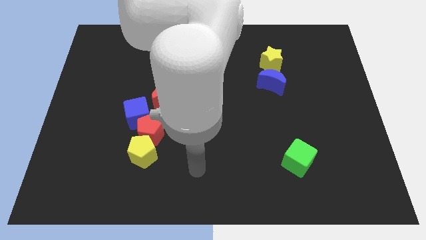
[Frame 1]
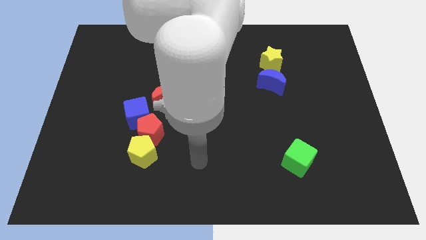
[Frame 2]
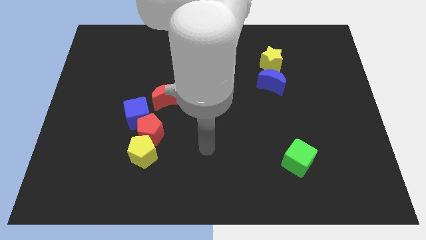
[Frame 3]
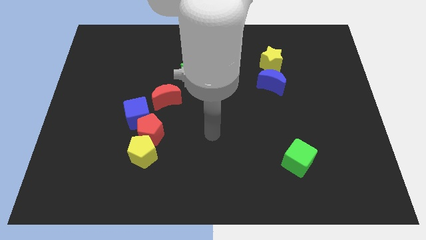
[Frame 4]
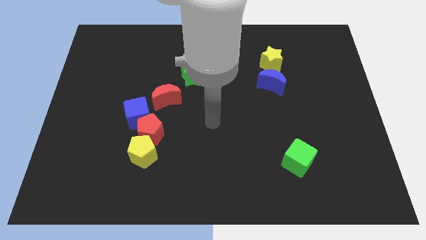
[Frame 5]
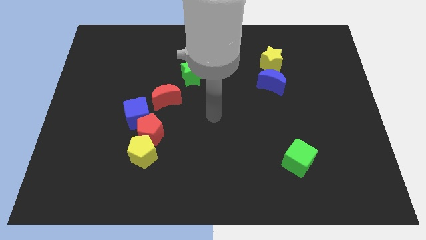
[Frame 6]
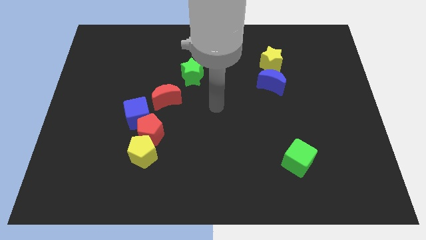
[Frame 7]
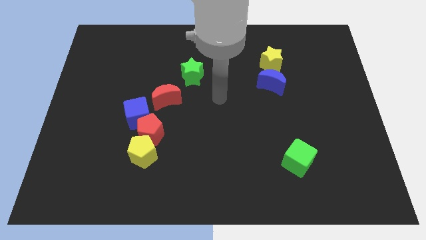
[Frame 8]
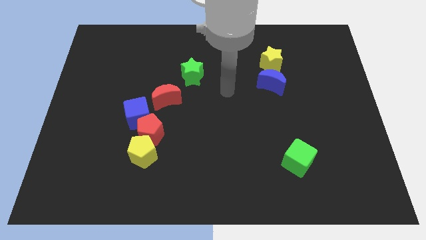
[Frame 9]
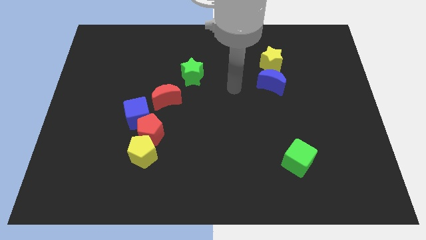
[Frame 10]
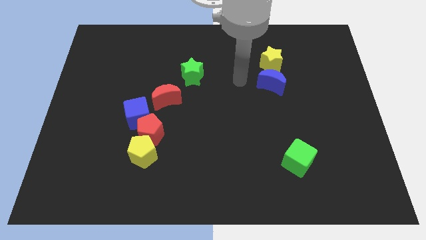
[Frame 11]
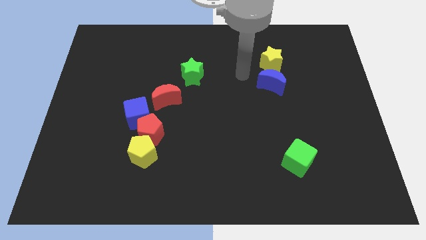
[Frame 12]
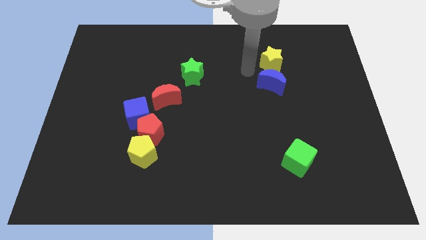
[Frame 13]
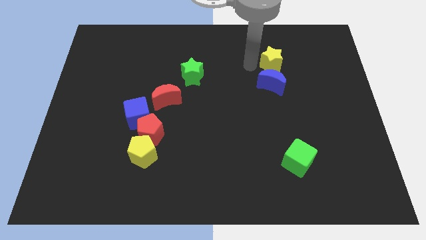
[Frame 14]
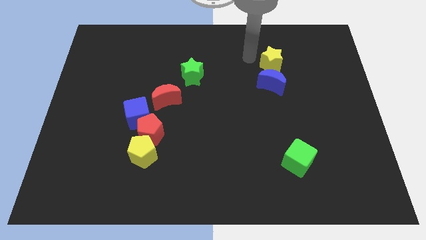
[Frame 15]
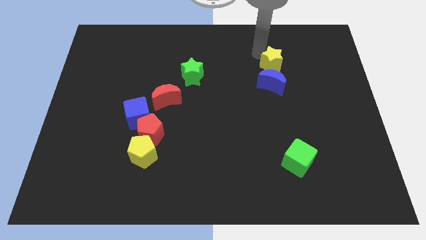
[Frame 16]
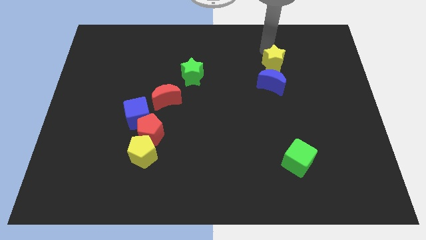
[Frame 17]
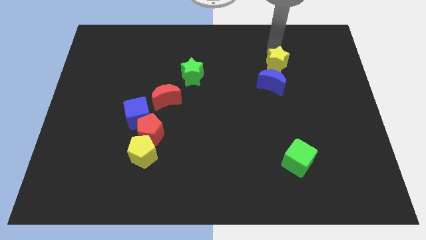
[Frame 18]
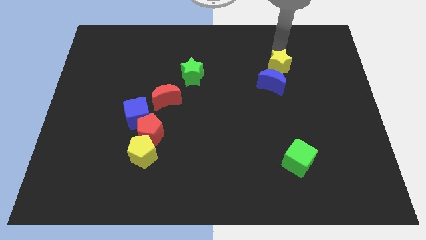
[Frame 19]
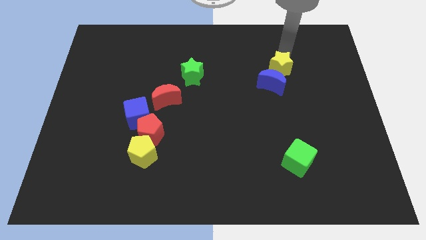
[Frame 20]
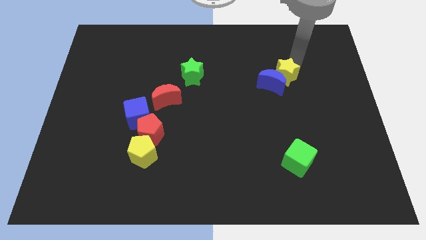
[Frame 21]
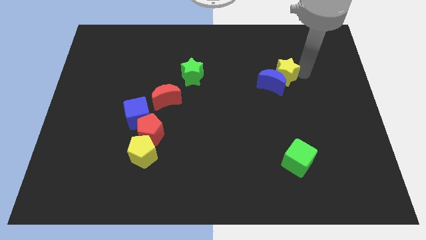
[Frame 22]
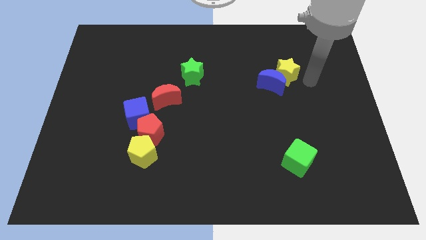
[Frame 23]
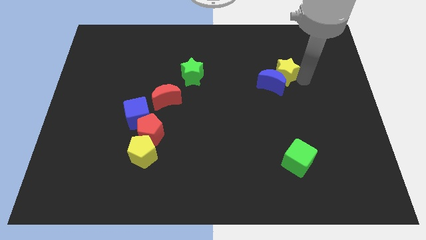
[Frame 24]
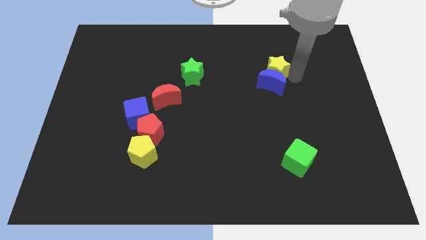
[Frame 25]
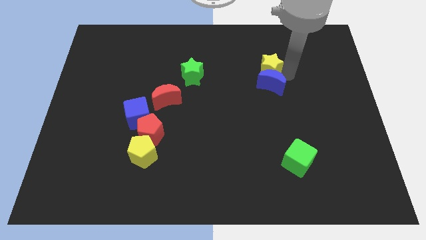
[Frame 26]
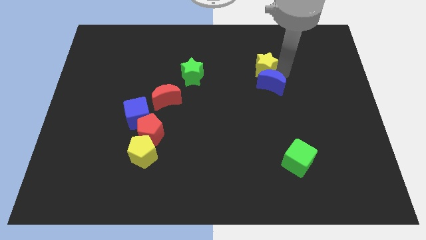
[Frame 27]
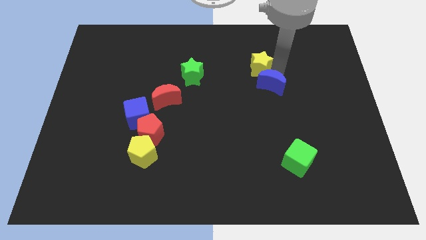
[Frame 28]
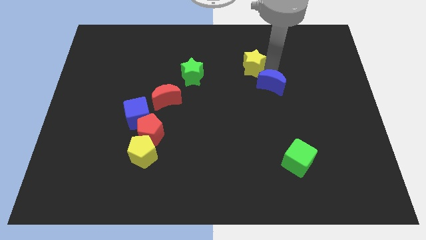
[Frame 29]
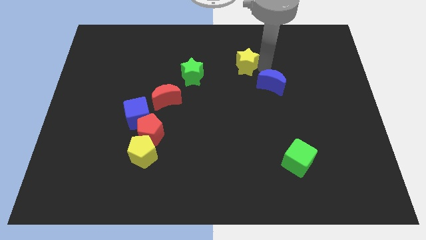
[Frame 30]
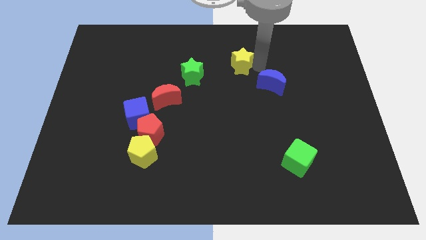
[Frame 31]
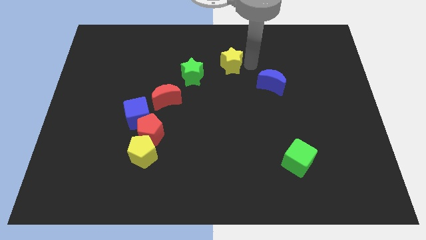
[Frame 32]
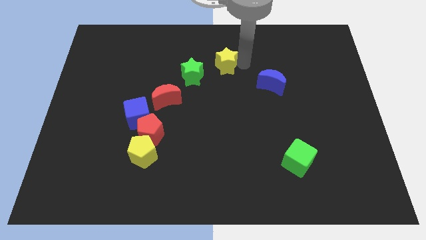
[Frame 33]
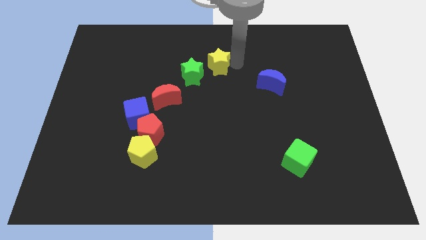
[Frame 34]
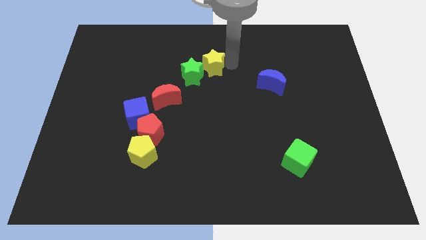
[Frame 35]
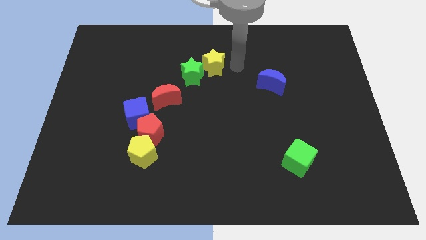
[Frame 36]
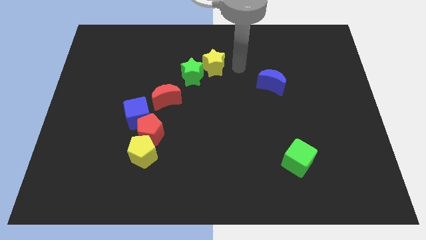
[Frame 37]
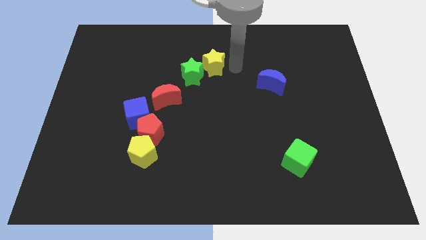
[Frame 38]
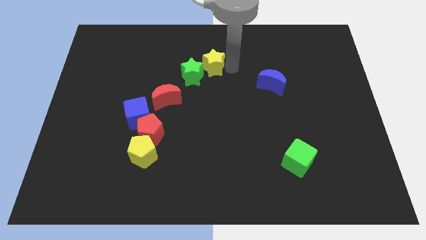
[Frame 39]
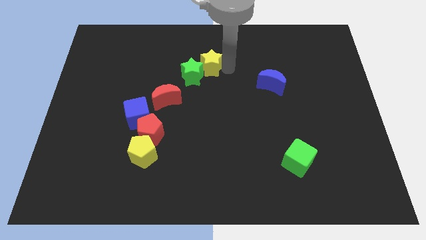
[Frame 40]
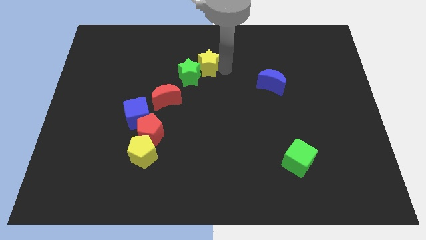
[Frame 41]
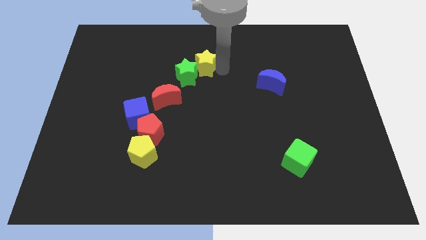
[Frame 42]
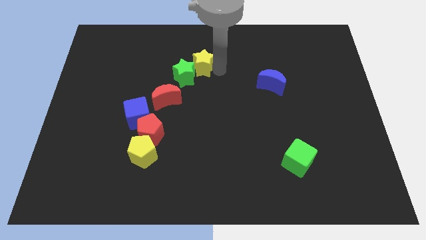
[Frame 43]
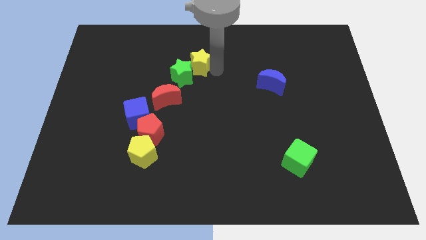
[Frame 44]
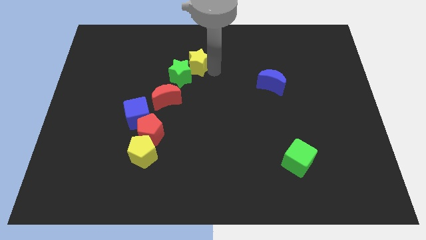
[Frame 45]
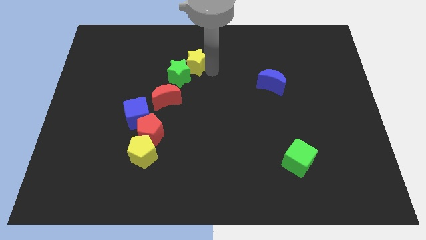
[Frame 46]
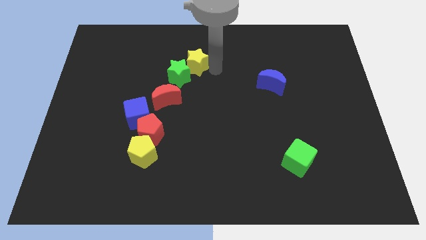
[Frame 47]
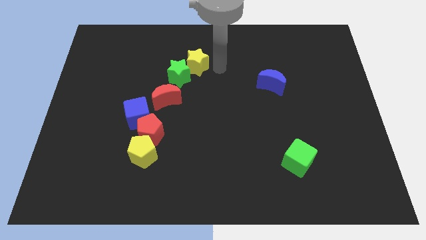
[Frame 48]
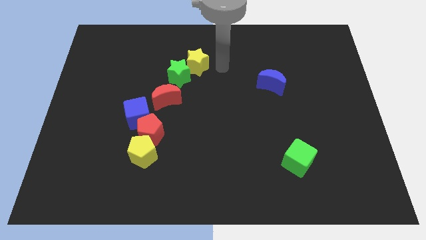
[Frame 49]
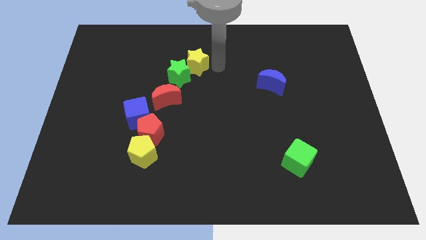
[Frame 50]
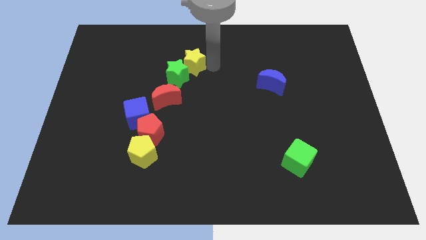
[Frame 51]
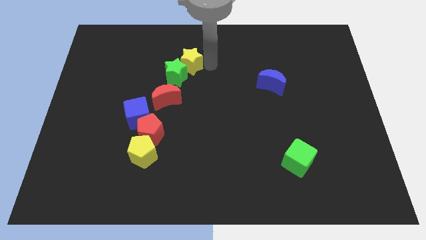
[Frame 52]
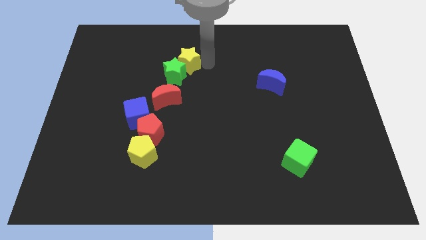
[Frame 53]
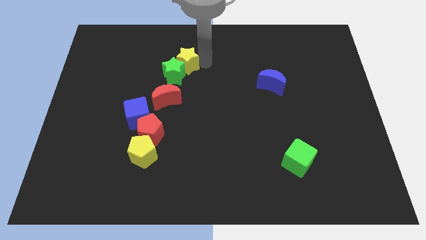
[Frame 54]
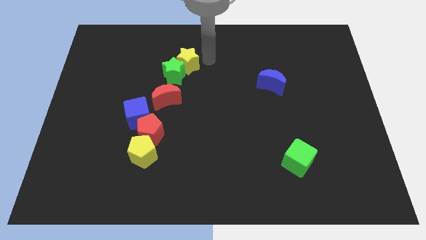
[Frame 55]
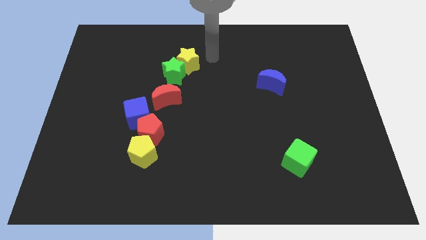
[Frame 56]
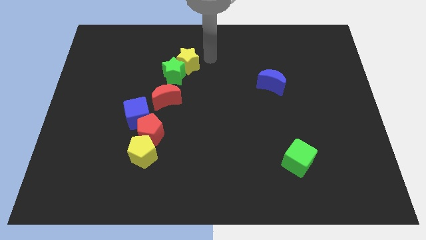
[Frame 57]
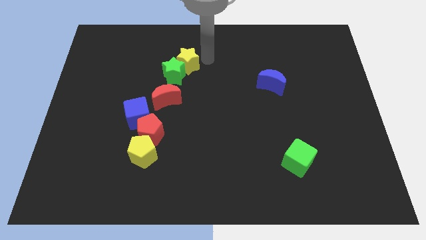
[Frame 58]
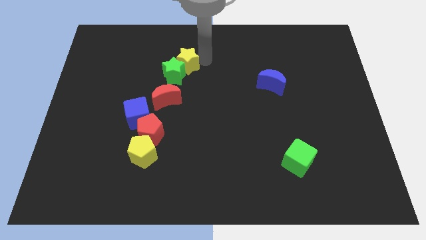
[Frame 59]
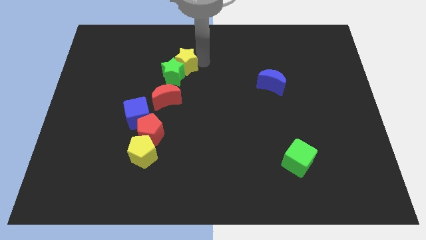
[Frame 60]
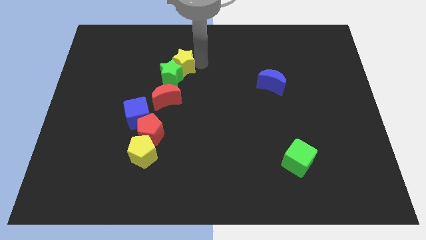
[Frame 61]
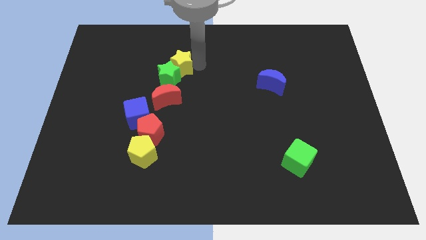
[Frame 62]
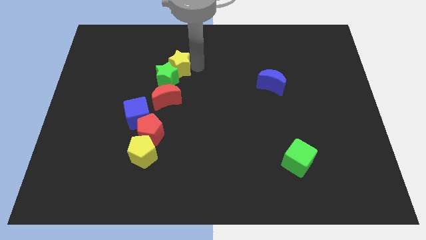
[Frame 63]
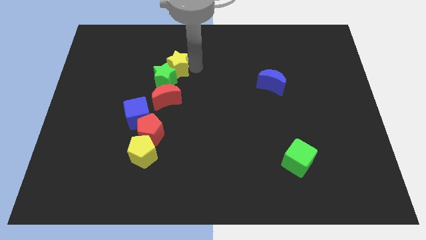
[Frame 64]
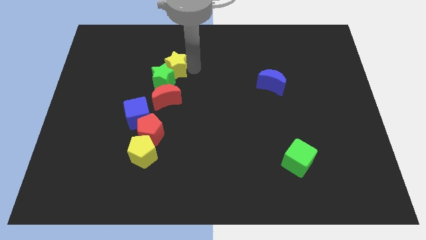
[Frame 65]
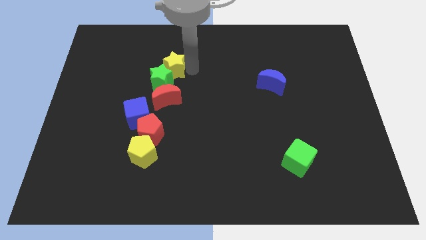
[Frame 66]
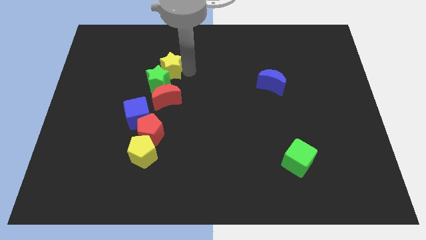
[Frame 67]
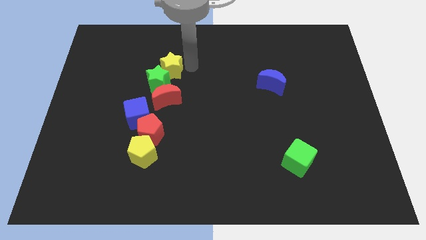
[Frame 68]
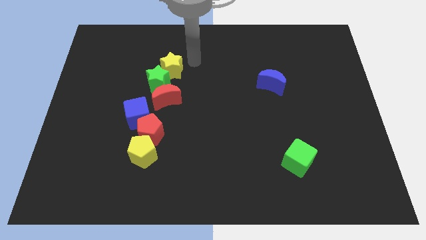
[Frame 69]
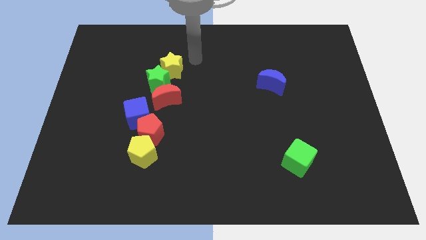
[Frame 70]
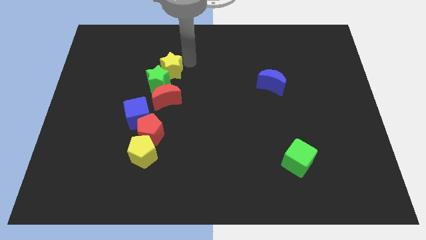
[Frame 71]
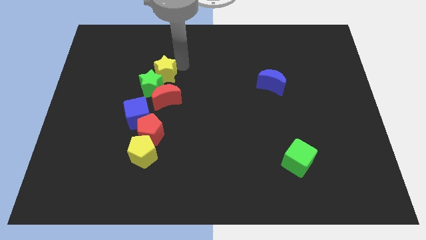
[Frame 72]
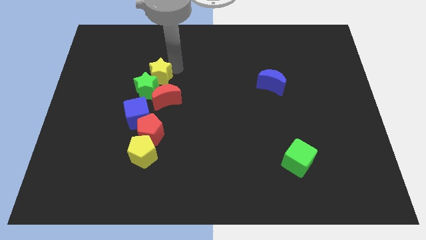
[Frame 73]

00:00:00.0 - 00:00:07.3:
move the yellow star to the top side of the blue cube
